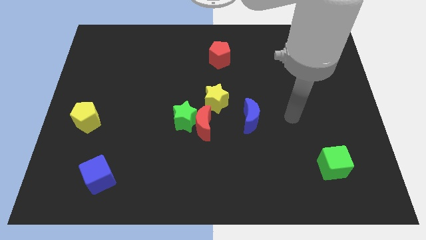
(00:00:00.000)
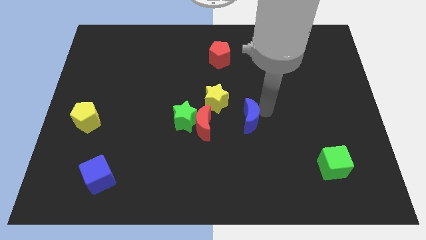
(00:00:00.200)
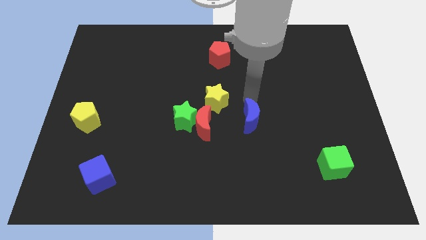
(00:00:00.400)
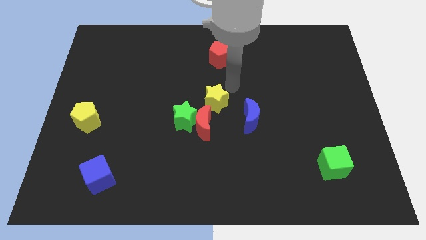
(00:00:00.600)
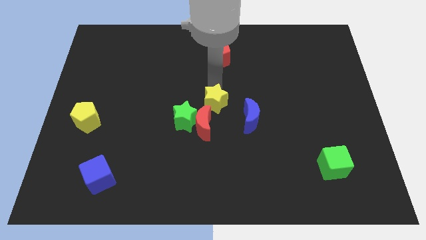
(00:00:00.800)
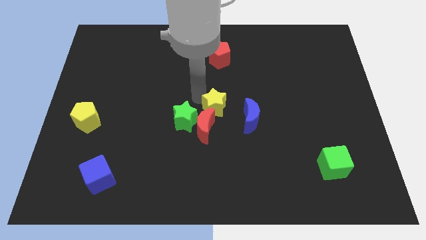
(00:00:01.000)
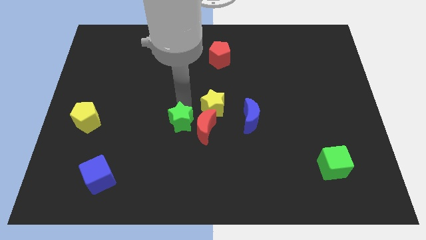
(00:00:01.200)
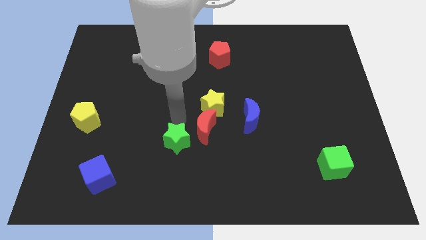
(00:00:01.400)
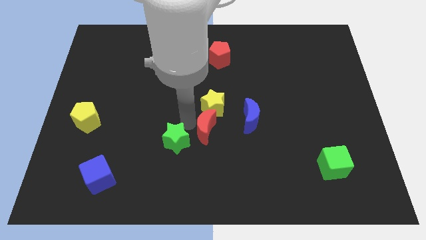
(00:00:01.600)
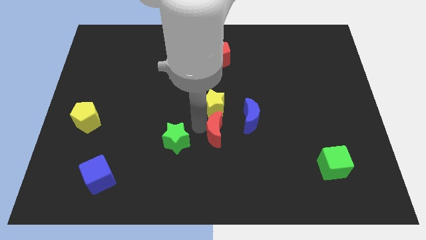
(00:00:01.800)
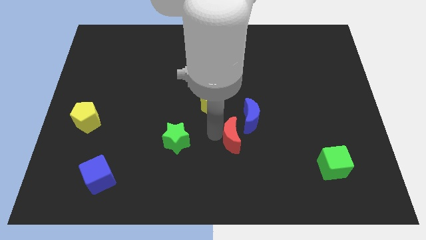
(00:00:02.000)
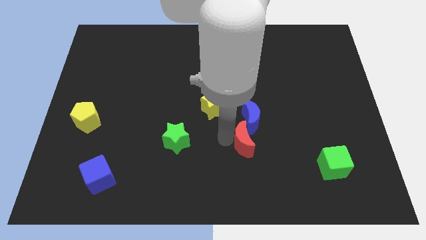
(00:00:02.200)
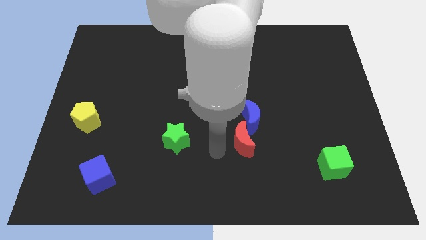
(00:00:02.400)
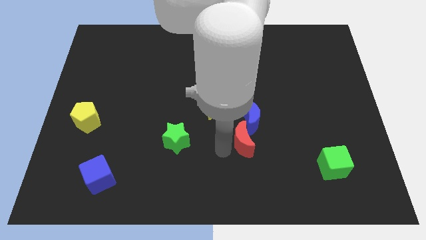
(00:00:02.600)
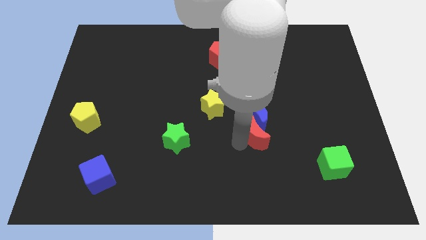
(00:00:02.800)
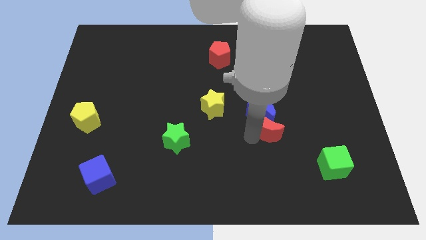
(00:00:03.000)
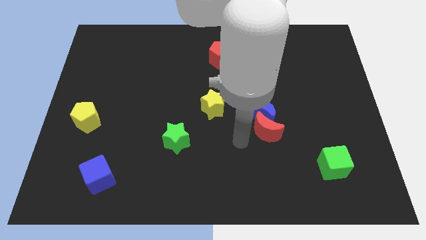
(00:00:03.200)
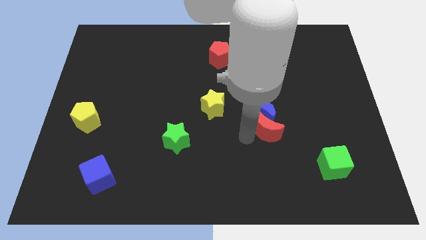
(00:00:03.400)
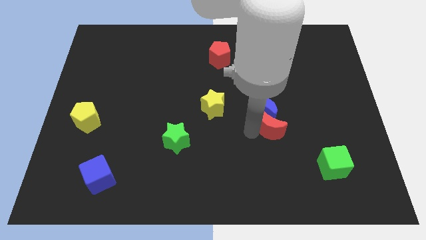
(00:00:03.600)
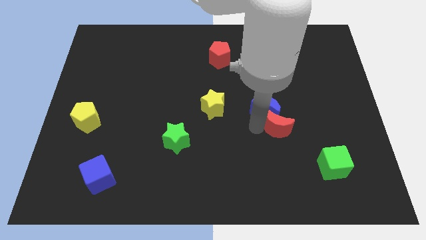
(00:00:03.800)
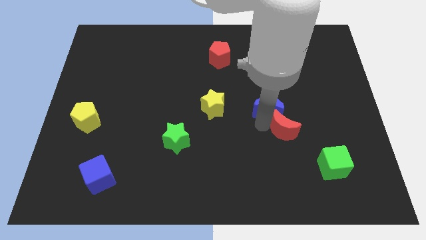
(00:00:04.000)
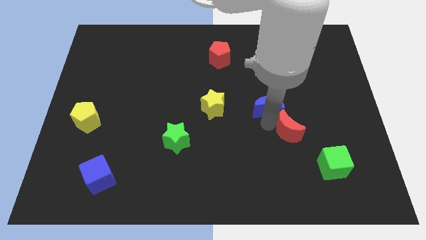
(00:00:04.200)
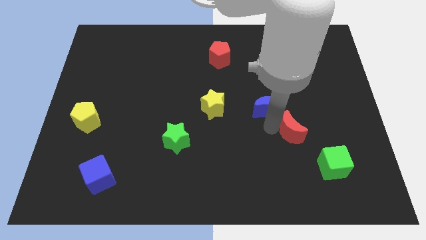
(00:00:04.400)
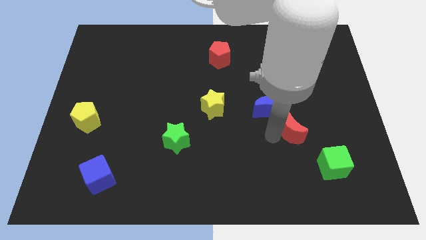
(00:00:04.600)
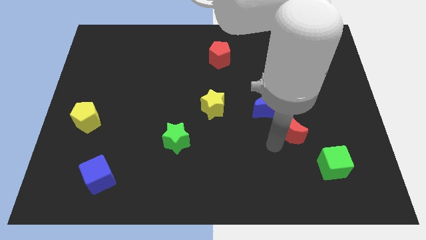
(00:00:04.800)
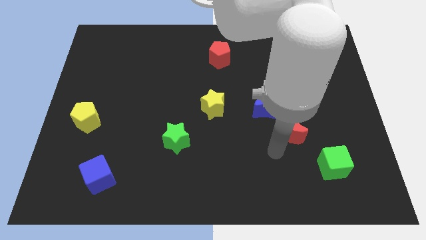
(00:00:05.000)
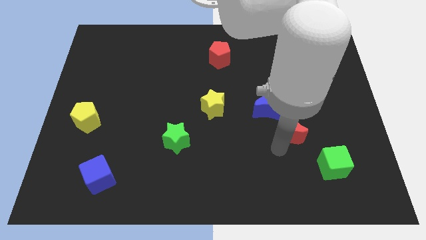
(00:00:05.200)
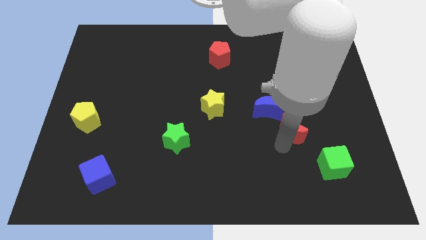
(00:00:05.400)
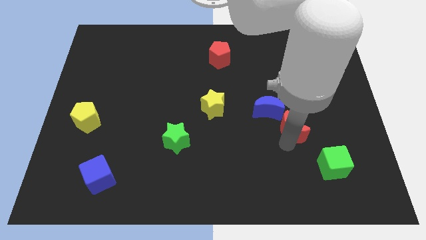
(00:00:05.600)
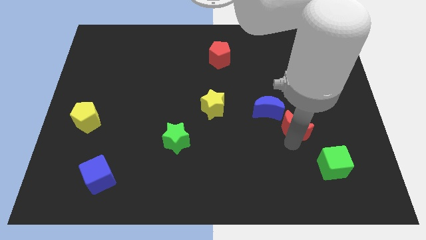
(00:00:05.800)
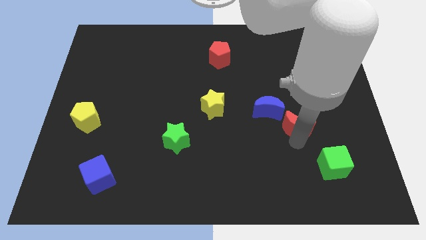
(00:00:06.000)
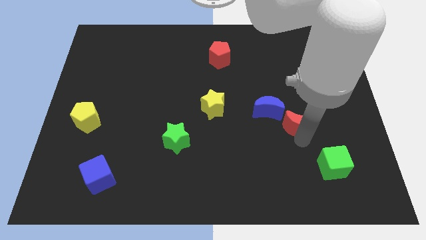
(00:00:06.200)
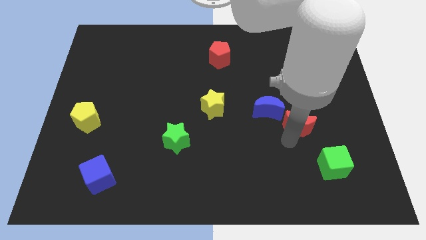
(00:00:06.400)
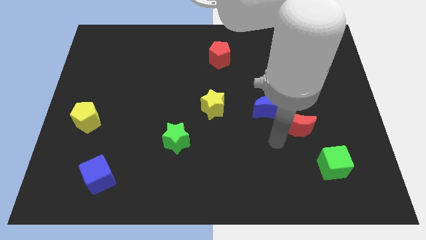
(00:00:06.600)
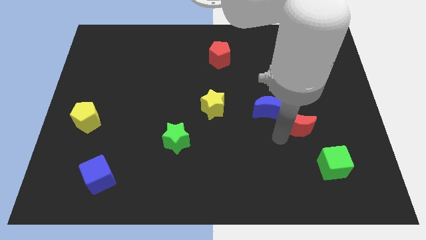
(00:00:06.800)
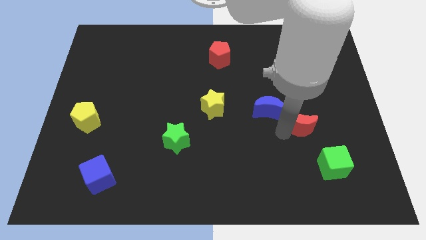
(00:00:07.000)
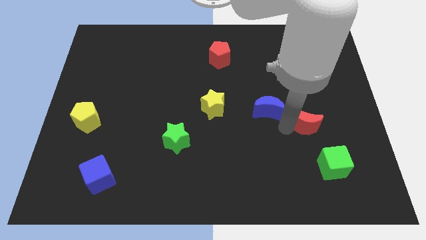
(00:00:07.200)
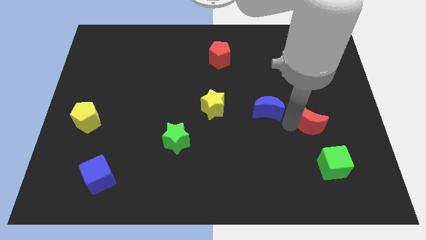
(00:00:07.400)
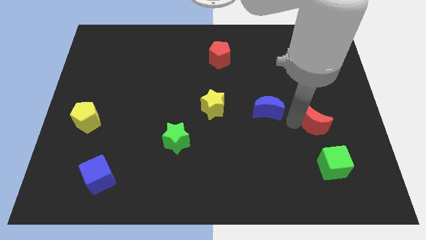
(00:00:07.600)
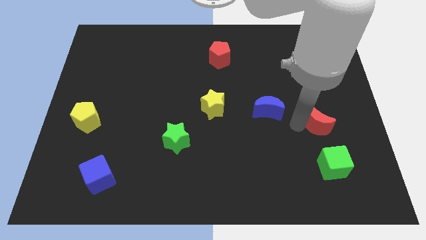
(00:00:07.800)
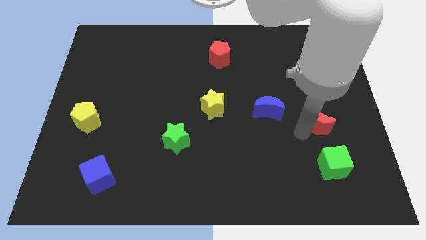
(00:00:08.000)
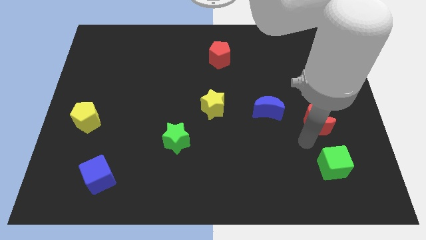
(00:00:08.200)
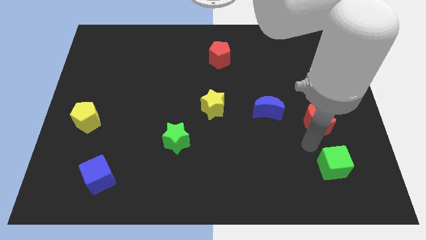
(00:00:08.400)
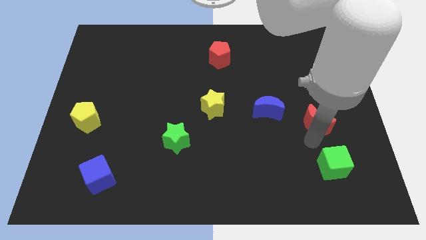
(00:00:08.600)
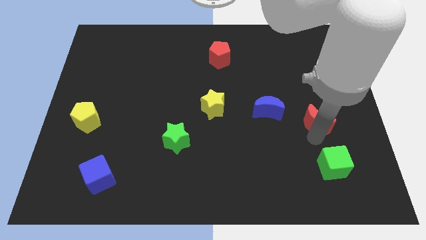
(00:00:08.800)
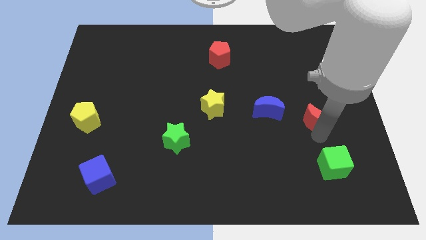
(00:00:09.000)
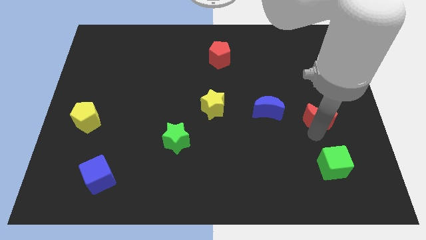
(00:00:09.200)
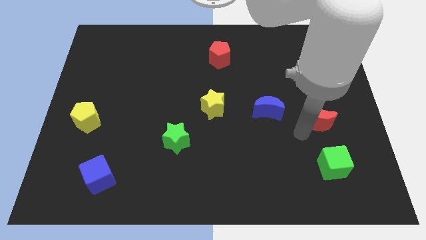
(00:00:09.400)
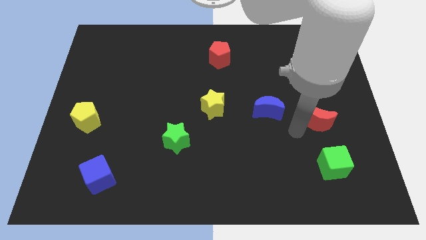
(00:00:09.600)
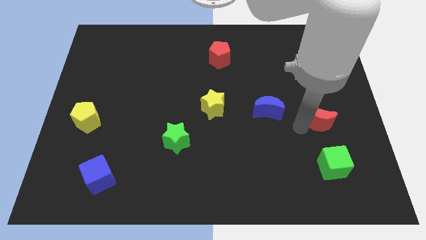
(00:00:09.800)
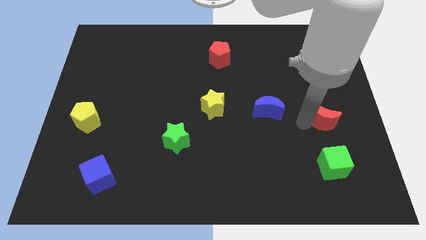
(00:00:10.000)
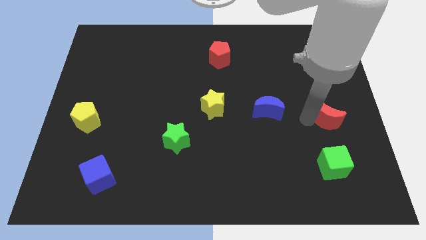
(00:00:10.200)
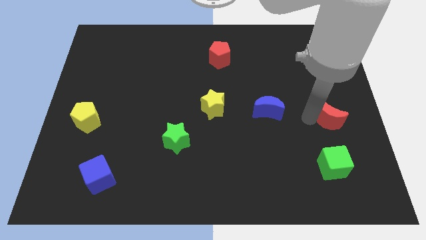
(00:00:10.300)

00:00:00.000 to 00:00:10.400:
push the red moon to the center right

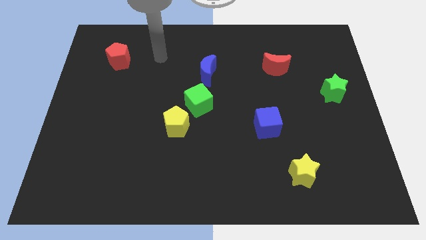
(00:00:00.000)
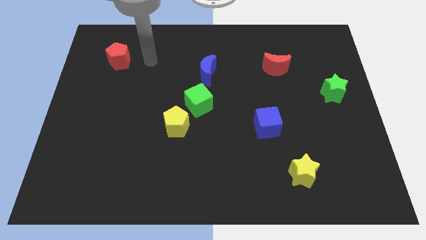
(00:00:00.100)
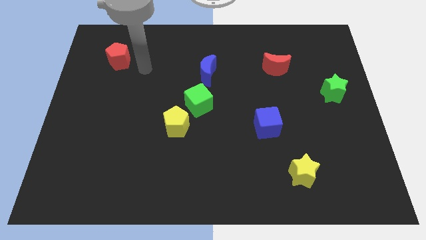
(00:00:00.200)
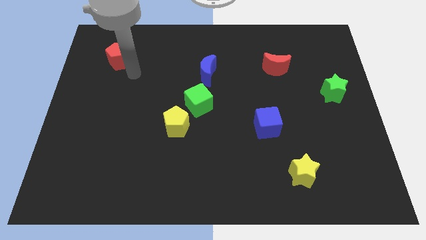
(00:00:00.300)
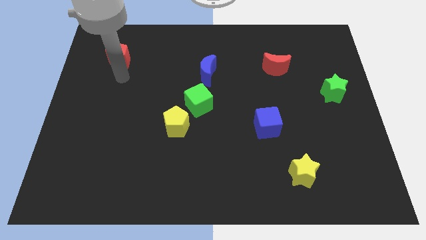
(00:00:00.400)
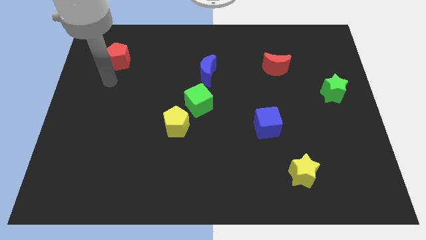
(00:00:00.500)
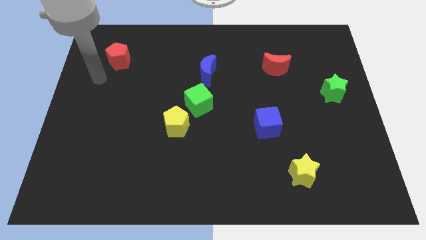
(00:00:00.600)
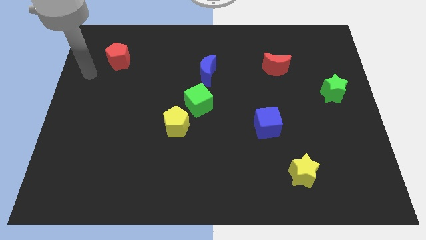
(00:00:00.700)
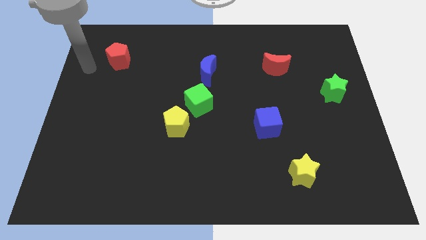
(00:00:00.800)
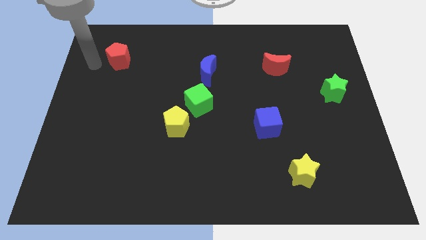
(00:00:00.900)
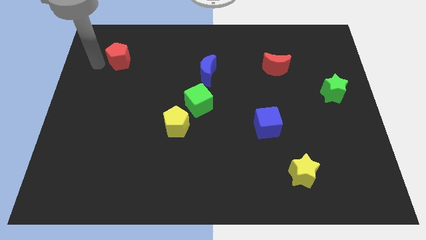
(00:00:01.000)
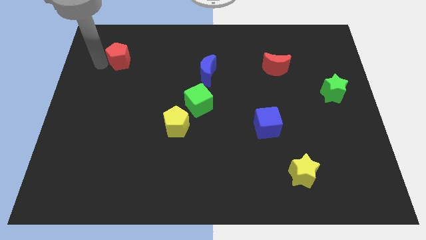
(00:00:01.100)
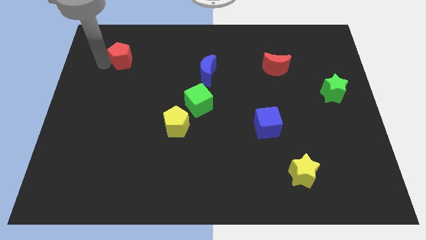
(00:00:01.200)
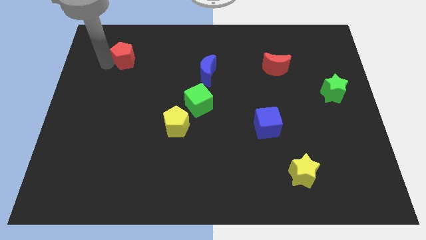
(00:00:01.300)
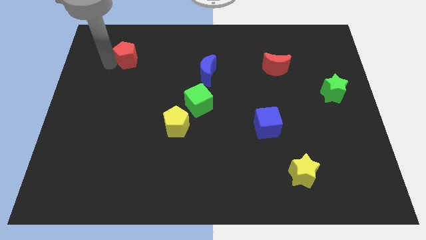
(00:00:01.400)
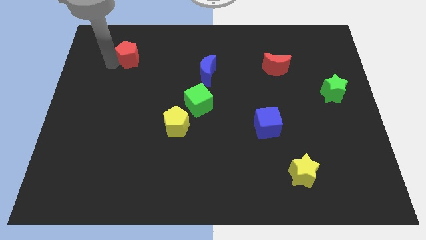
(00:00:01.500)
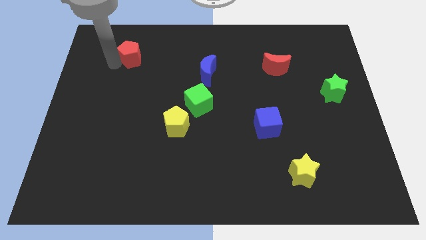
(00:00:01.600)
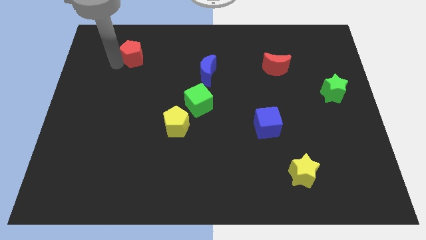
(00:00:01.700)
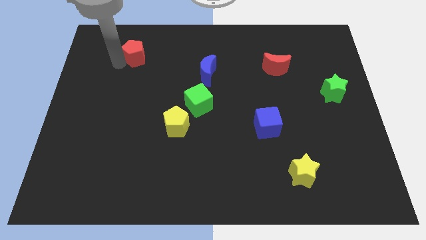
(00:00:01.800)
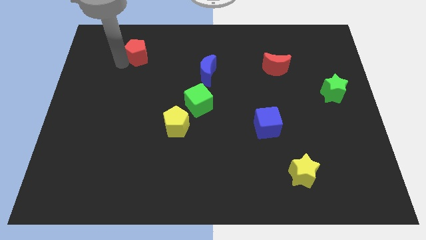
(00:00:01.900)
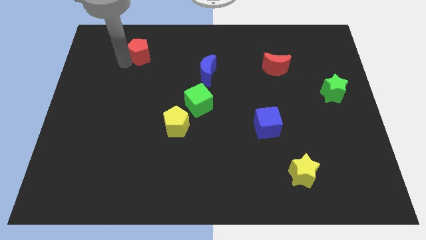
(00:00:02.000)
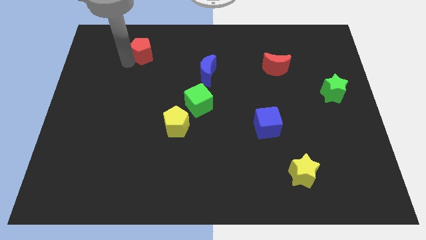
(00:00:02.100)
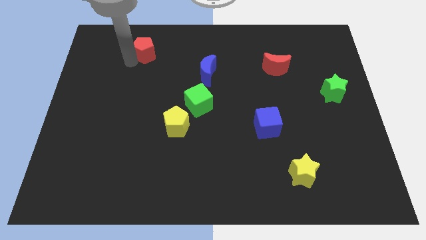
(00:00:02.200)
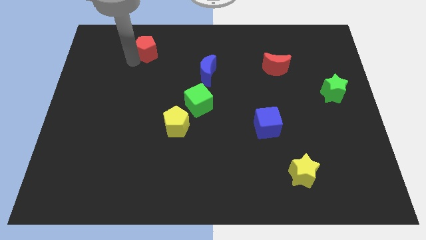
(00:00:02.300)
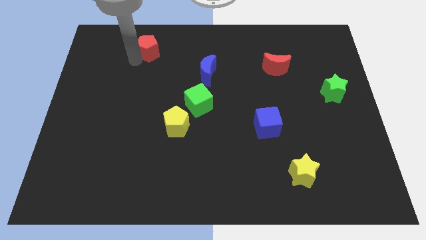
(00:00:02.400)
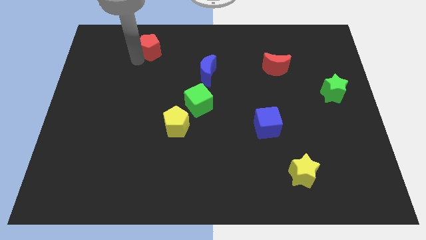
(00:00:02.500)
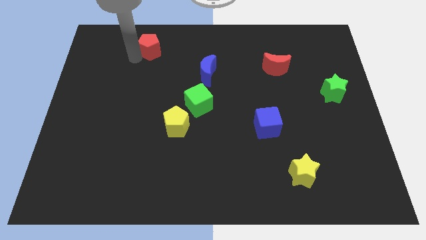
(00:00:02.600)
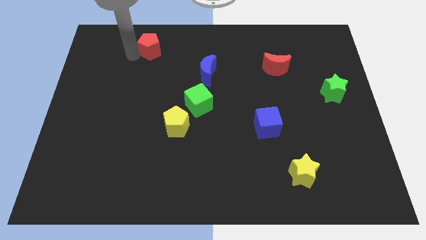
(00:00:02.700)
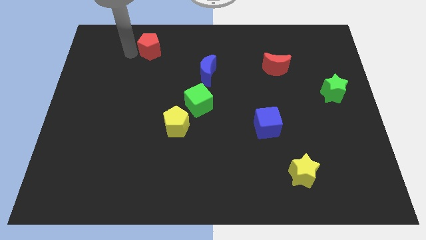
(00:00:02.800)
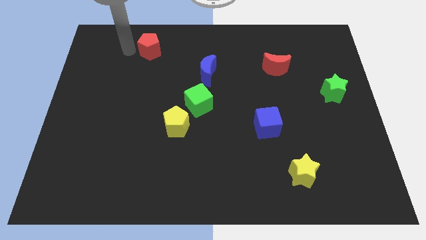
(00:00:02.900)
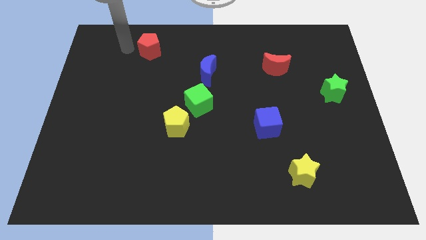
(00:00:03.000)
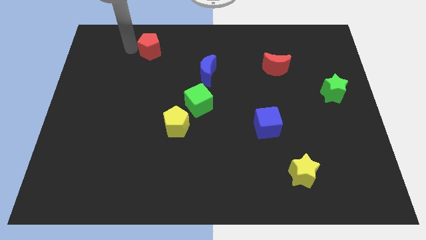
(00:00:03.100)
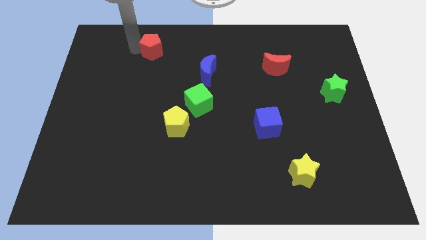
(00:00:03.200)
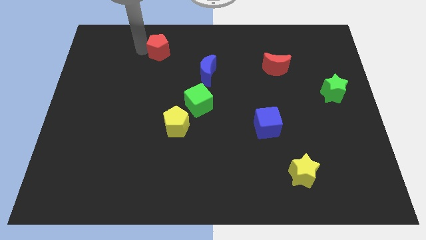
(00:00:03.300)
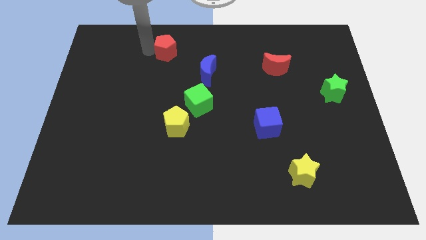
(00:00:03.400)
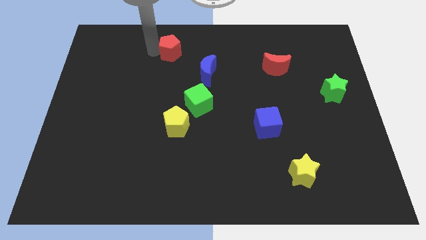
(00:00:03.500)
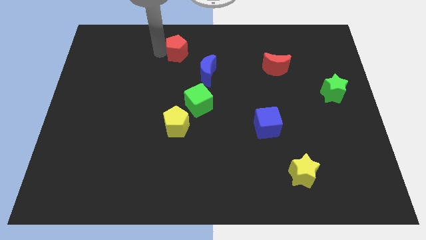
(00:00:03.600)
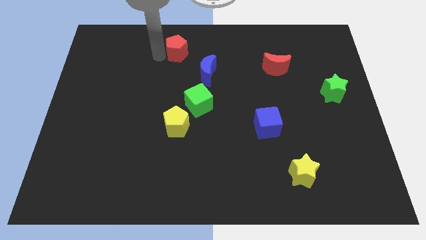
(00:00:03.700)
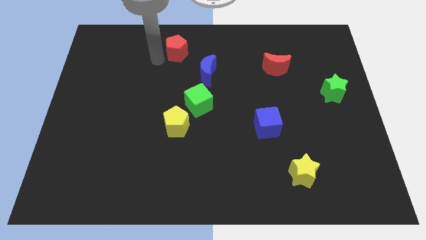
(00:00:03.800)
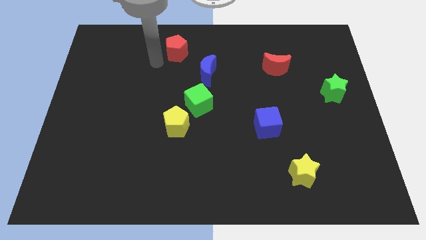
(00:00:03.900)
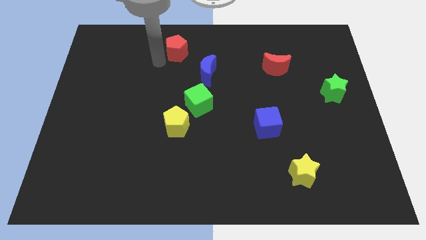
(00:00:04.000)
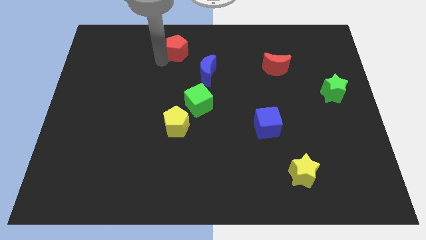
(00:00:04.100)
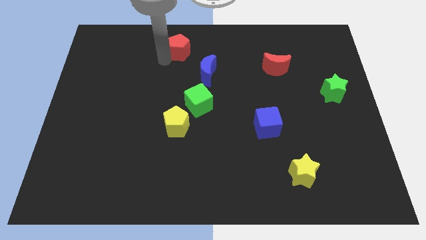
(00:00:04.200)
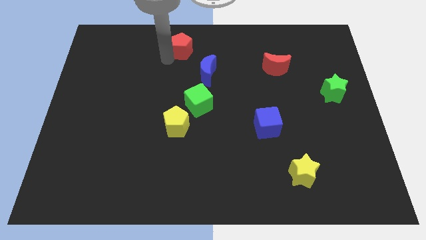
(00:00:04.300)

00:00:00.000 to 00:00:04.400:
push the red pentagon to the top side
